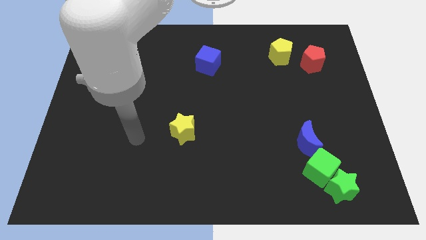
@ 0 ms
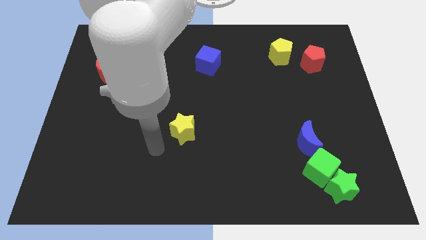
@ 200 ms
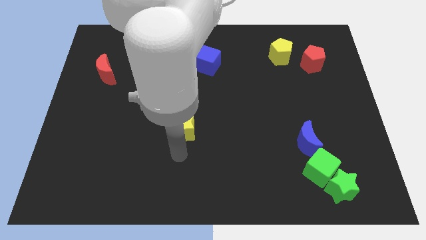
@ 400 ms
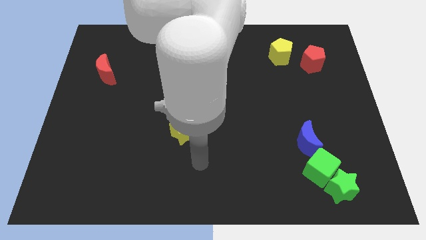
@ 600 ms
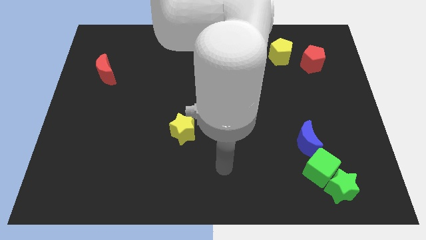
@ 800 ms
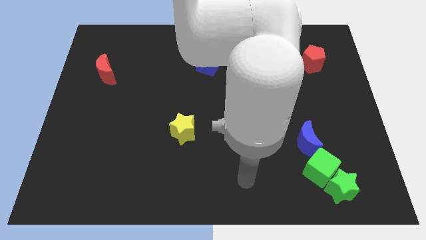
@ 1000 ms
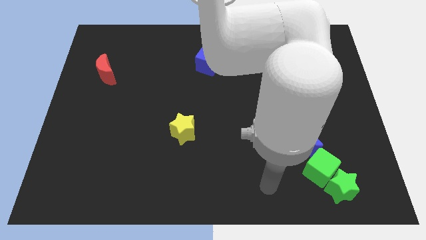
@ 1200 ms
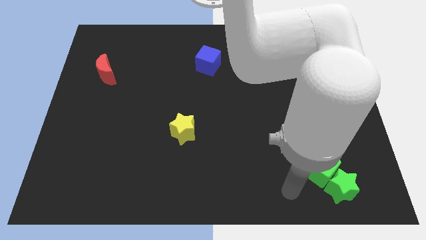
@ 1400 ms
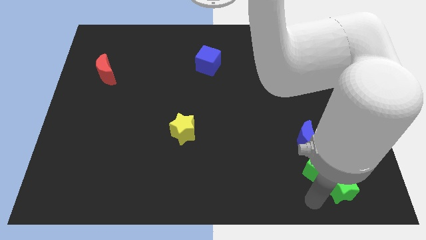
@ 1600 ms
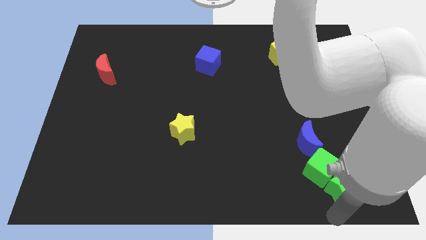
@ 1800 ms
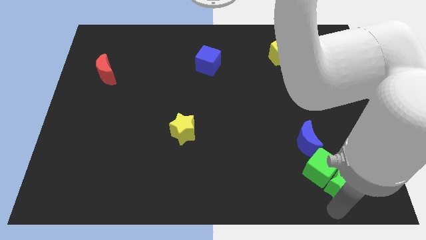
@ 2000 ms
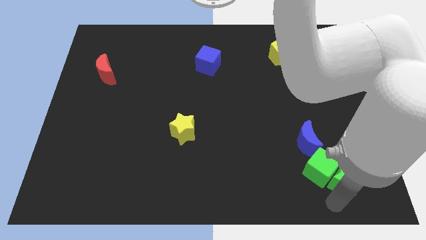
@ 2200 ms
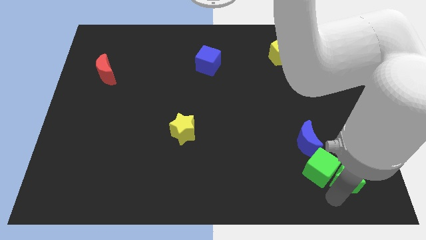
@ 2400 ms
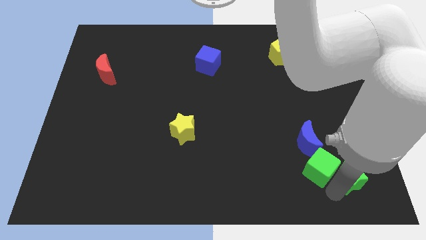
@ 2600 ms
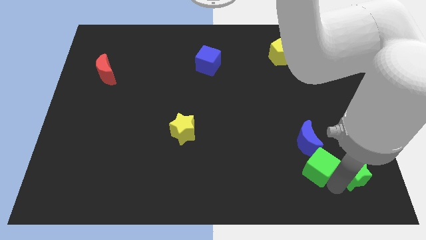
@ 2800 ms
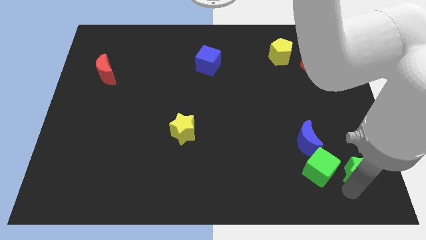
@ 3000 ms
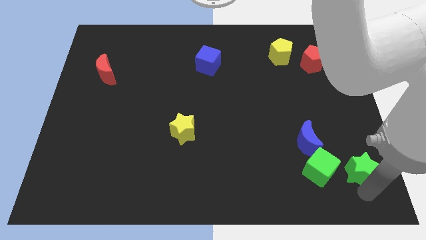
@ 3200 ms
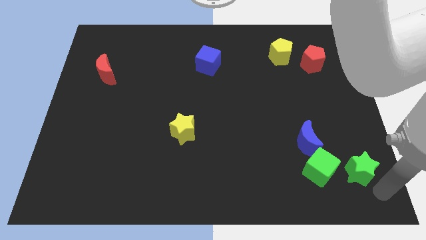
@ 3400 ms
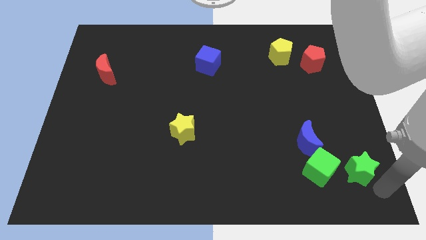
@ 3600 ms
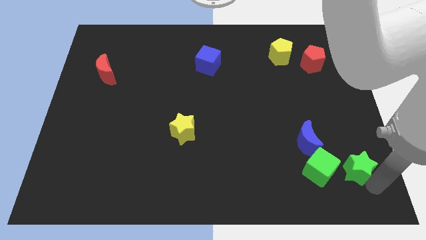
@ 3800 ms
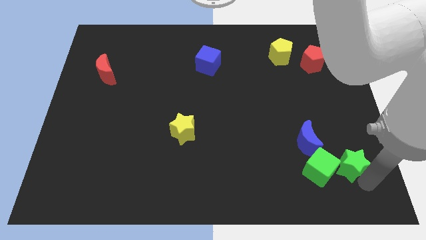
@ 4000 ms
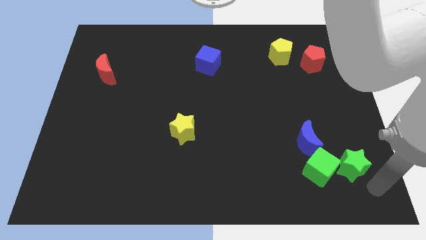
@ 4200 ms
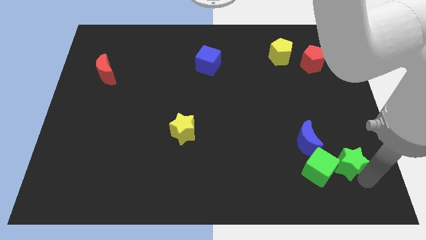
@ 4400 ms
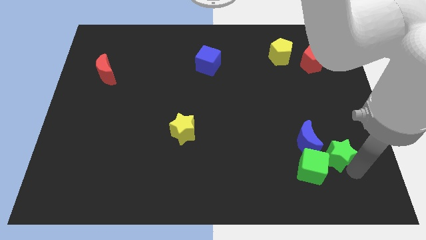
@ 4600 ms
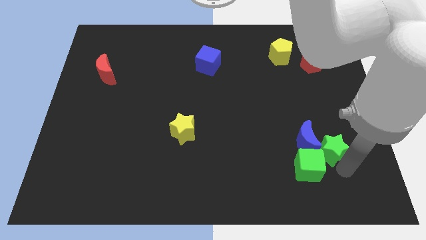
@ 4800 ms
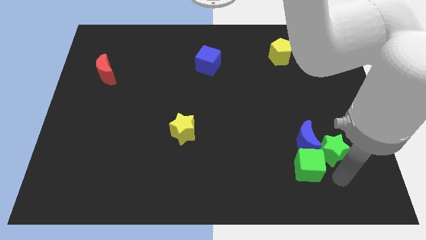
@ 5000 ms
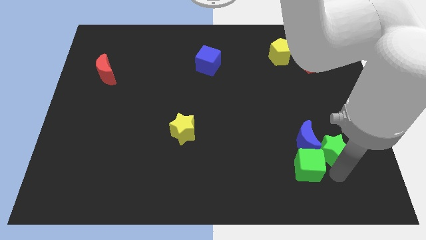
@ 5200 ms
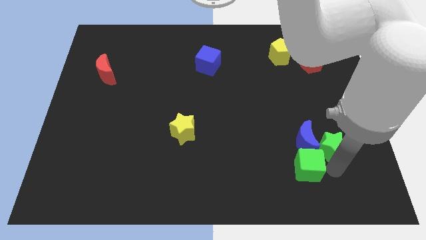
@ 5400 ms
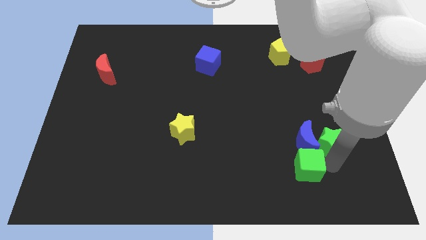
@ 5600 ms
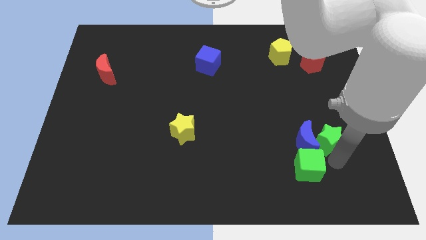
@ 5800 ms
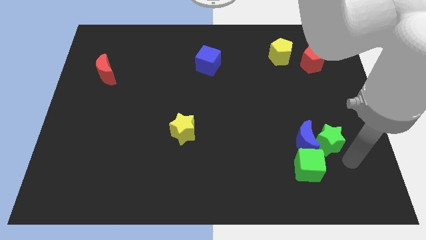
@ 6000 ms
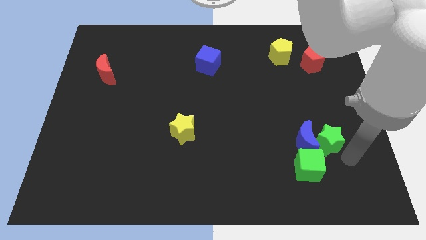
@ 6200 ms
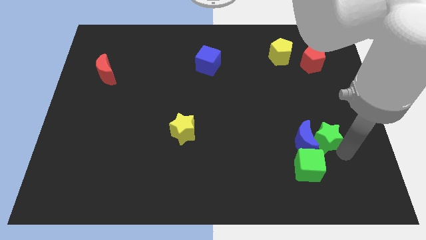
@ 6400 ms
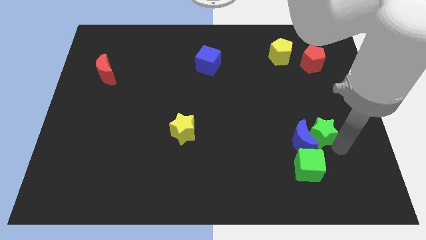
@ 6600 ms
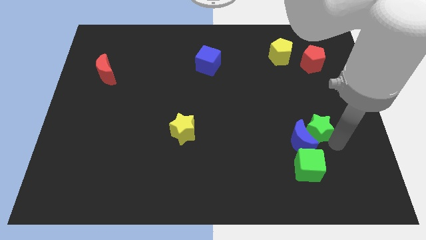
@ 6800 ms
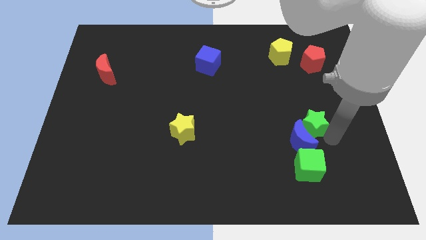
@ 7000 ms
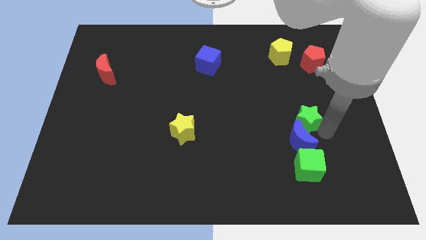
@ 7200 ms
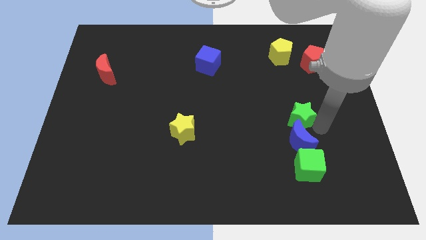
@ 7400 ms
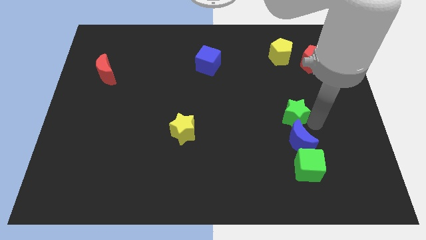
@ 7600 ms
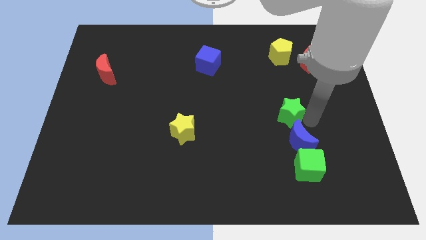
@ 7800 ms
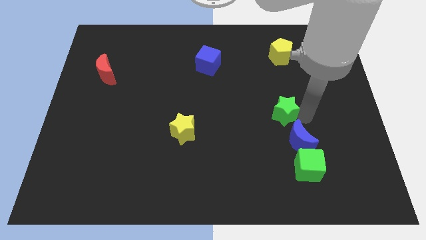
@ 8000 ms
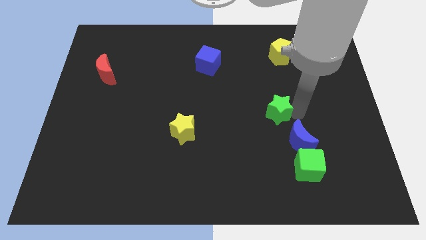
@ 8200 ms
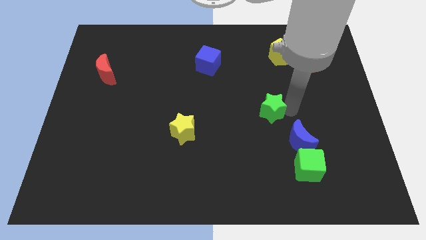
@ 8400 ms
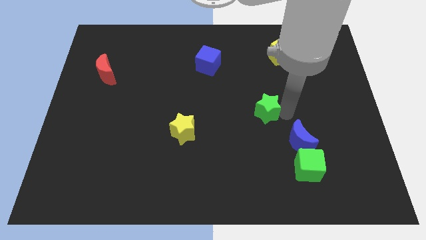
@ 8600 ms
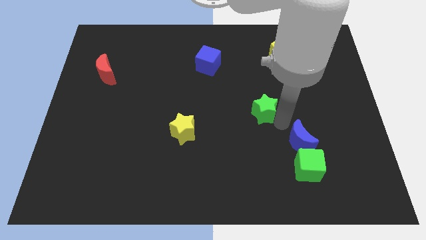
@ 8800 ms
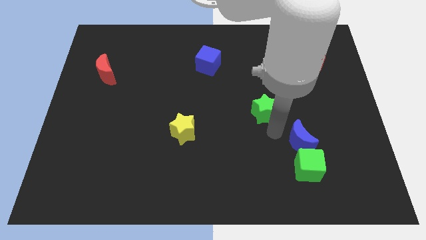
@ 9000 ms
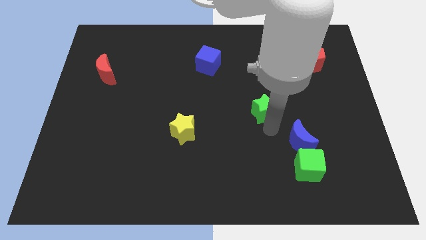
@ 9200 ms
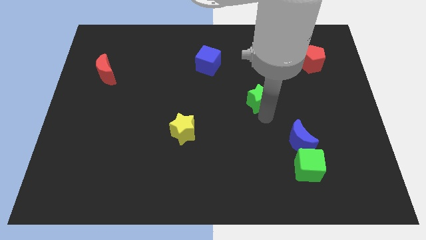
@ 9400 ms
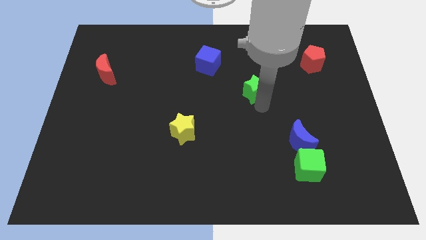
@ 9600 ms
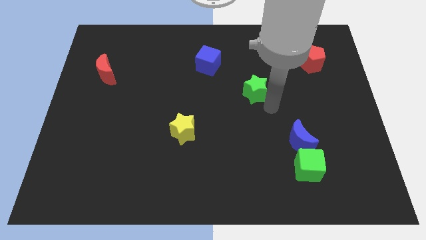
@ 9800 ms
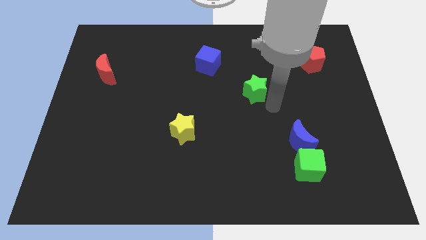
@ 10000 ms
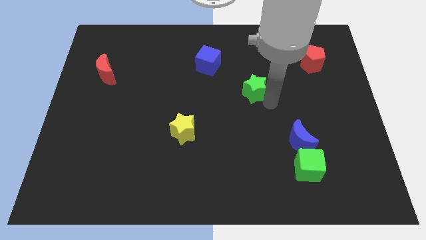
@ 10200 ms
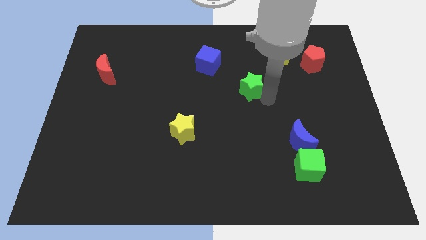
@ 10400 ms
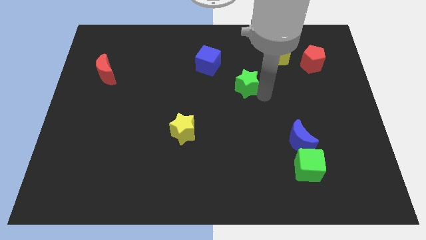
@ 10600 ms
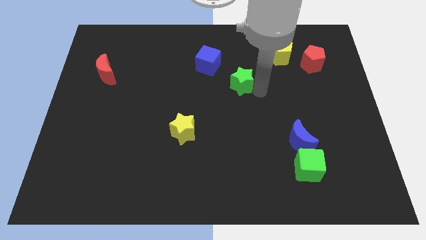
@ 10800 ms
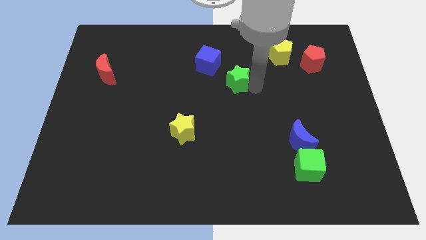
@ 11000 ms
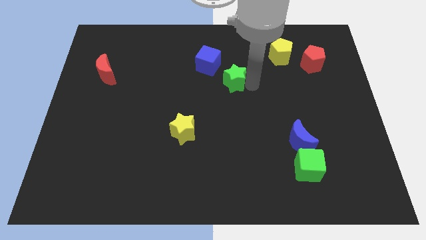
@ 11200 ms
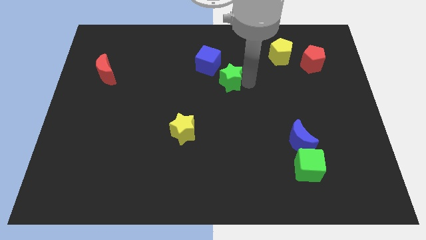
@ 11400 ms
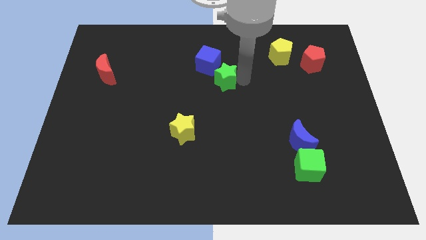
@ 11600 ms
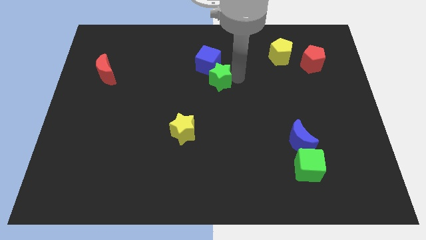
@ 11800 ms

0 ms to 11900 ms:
move the green star to the blue cube

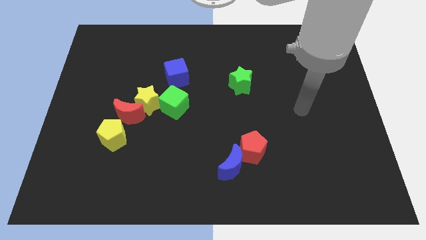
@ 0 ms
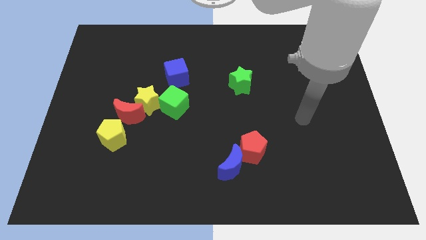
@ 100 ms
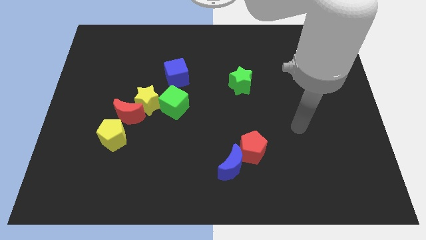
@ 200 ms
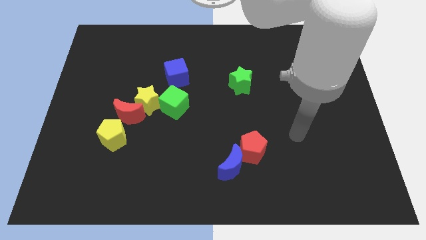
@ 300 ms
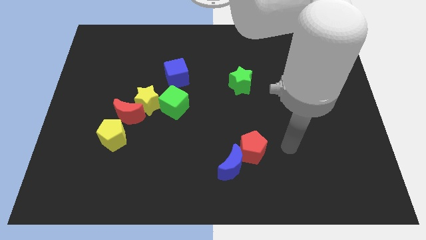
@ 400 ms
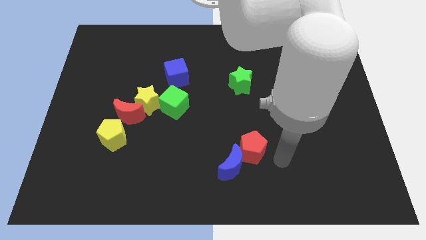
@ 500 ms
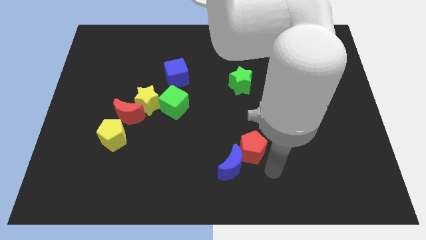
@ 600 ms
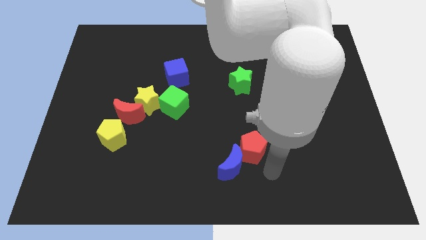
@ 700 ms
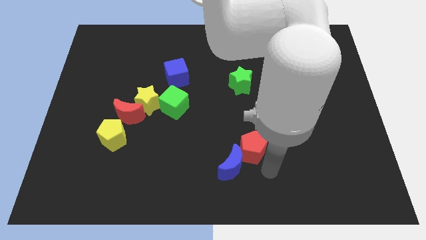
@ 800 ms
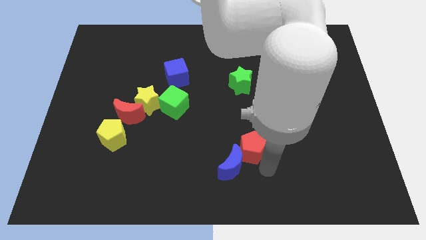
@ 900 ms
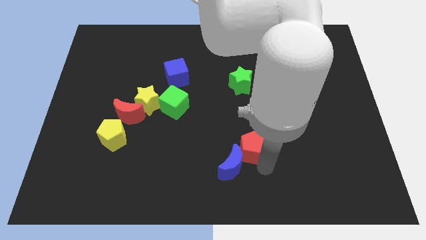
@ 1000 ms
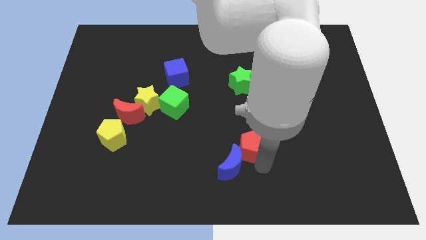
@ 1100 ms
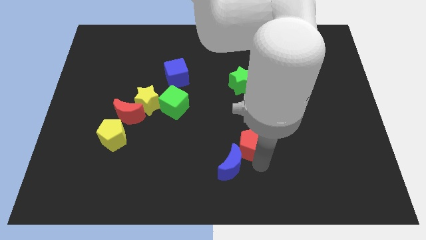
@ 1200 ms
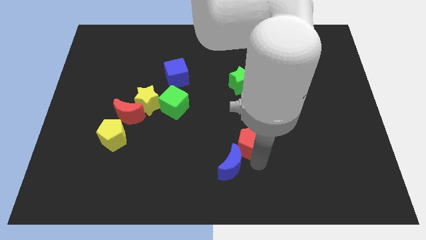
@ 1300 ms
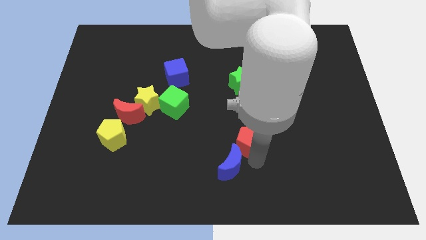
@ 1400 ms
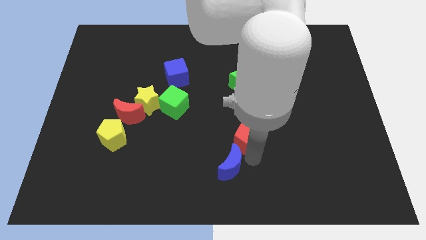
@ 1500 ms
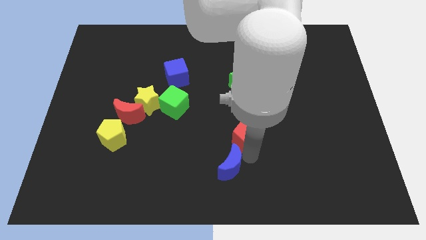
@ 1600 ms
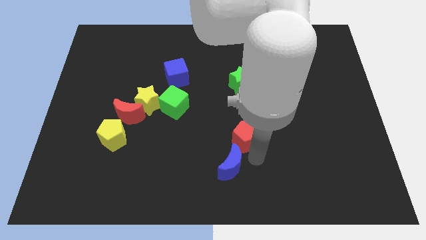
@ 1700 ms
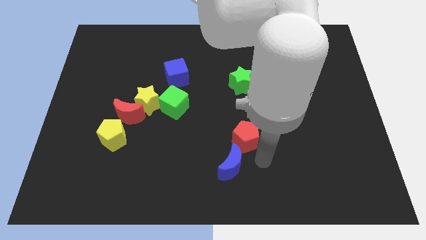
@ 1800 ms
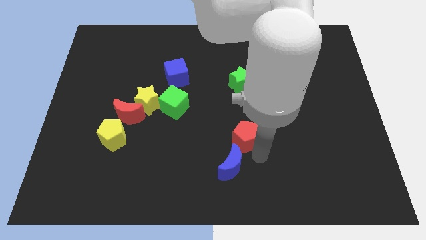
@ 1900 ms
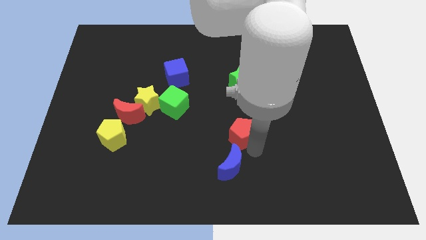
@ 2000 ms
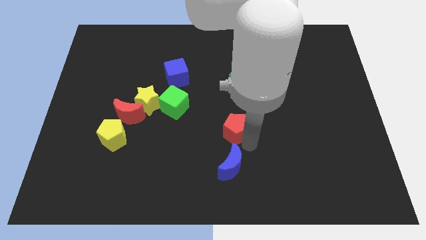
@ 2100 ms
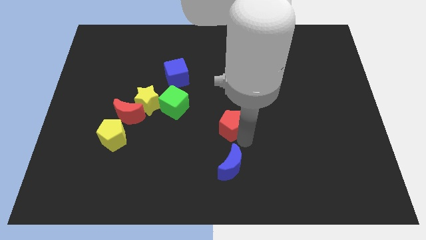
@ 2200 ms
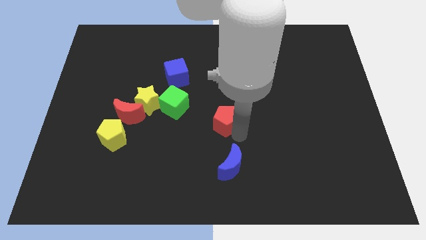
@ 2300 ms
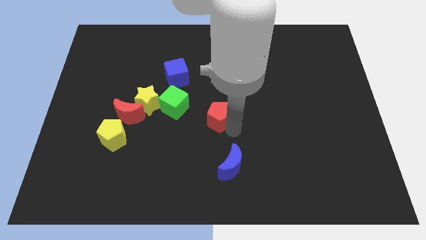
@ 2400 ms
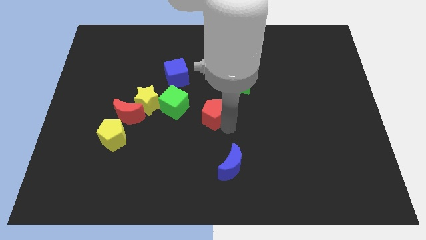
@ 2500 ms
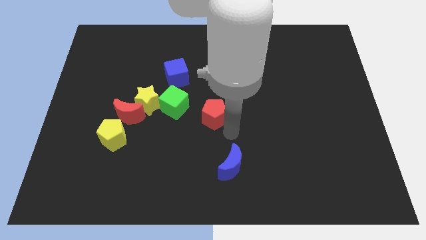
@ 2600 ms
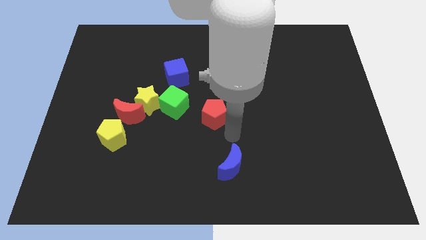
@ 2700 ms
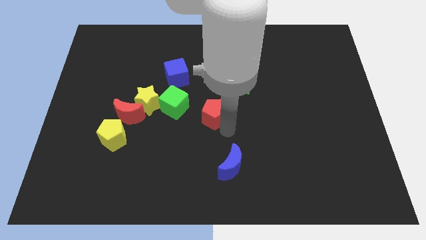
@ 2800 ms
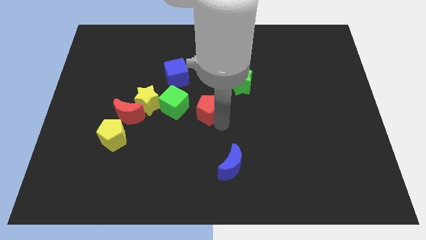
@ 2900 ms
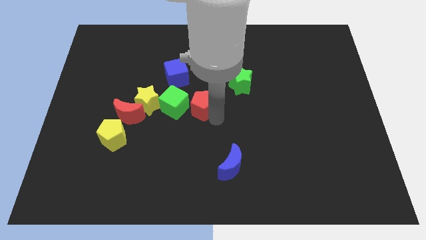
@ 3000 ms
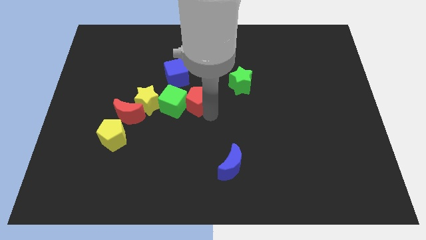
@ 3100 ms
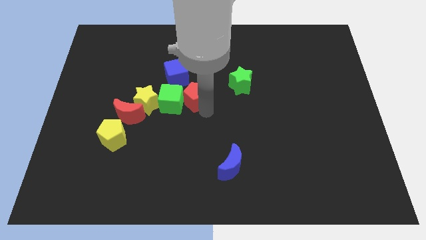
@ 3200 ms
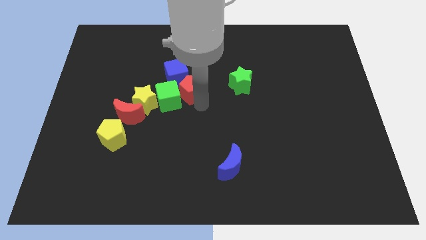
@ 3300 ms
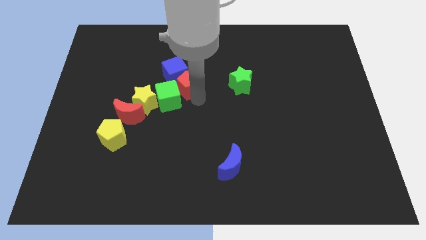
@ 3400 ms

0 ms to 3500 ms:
slide the red pentagon towards the blue cube
